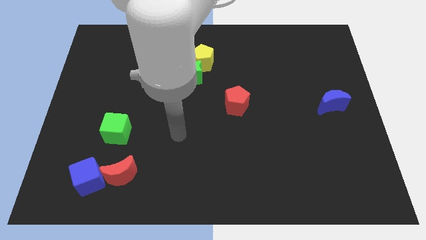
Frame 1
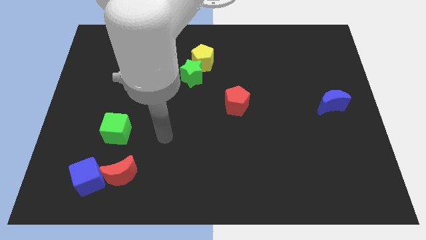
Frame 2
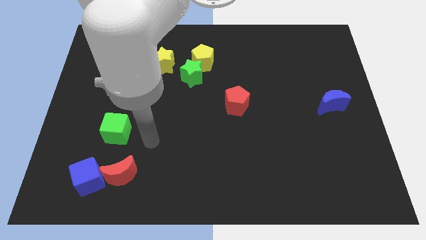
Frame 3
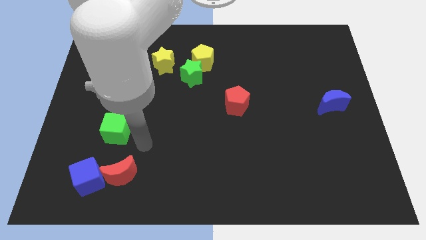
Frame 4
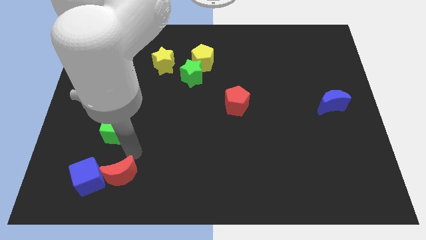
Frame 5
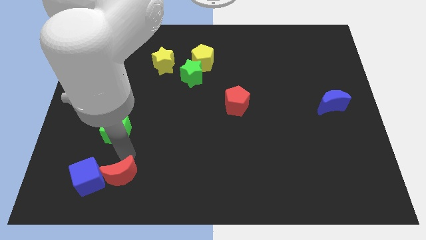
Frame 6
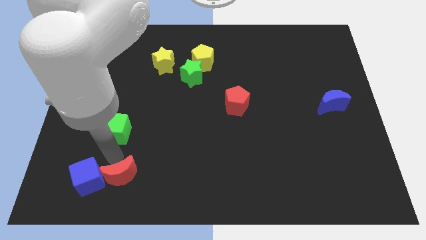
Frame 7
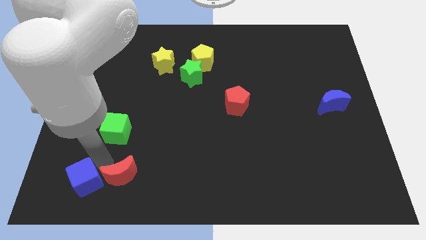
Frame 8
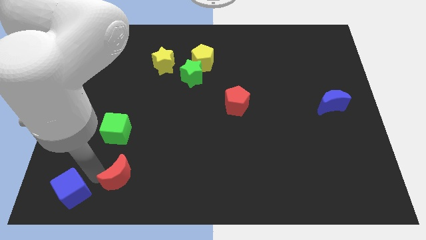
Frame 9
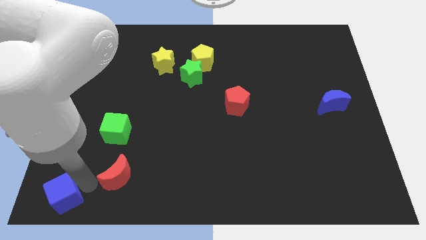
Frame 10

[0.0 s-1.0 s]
pull the red moon apart from the blue cube

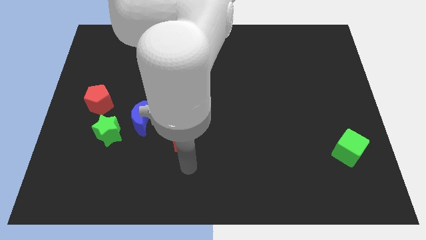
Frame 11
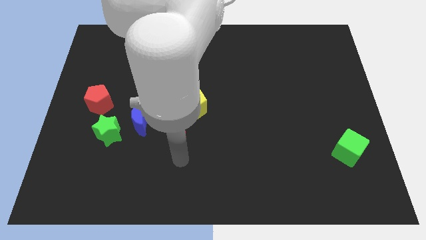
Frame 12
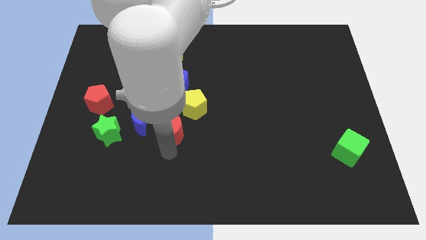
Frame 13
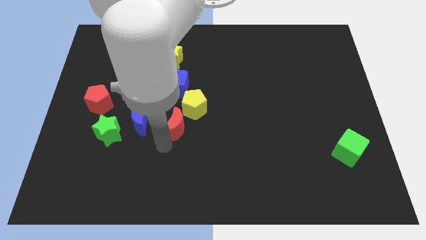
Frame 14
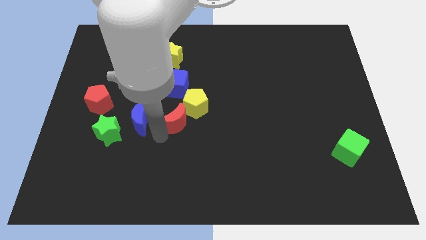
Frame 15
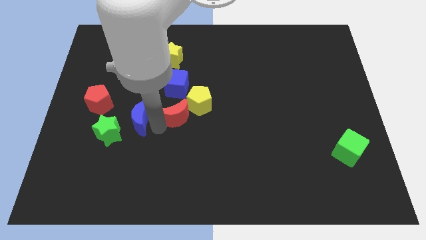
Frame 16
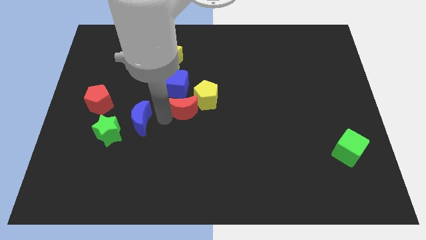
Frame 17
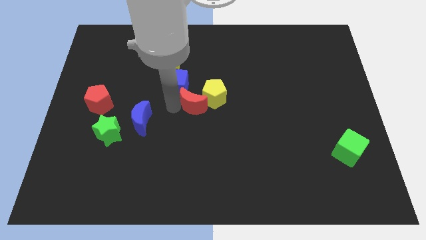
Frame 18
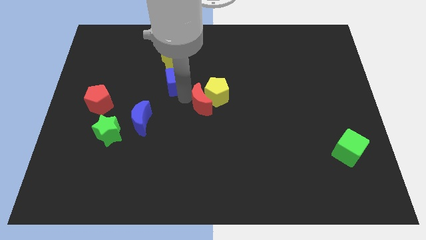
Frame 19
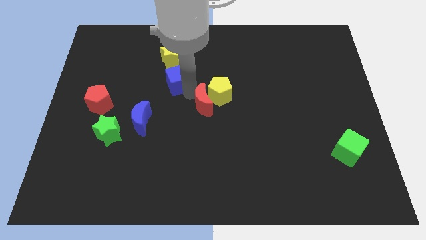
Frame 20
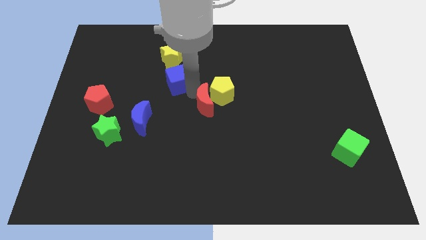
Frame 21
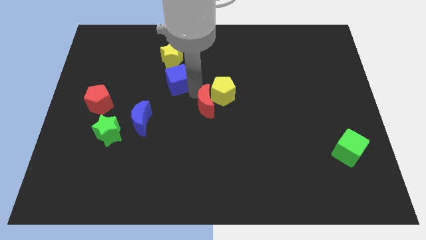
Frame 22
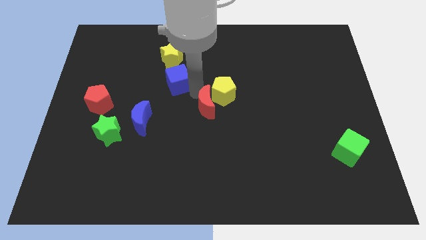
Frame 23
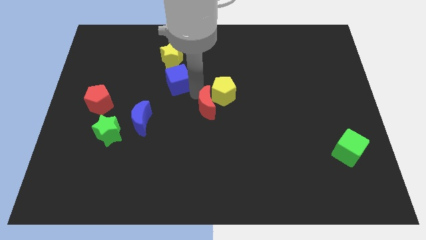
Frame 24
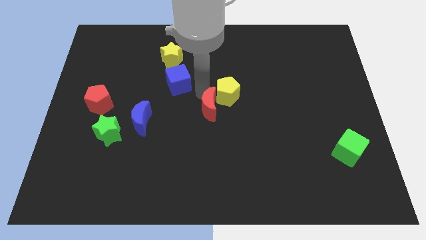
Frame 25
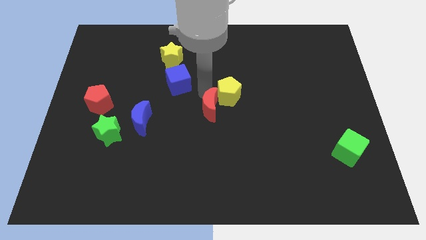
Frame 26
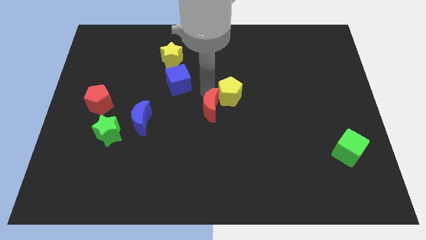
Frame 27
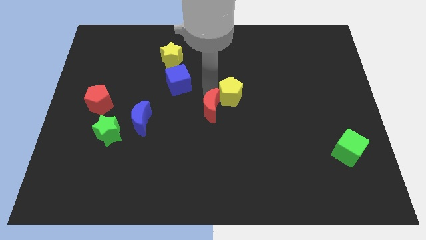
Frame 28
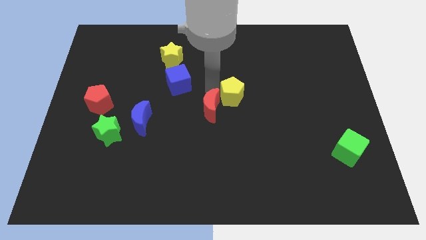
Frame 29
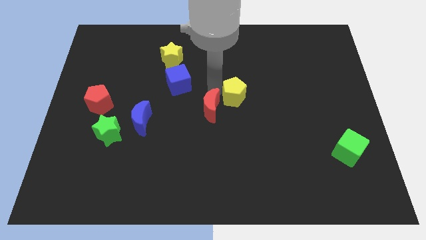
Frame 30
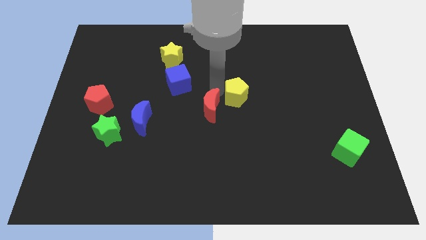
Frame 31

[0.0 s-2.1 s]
separate the yellow pentagon from the blue cube and red moon

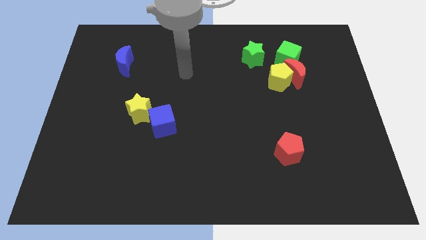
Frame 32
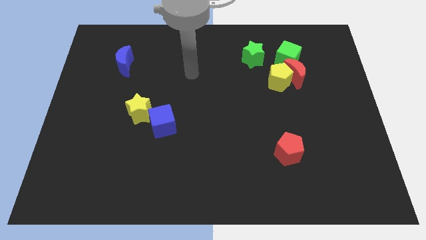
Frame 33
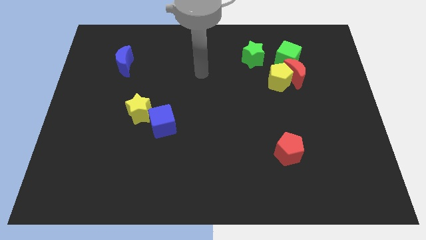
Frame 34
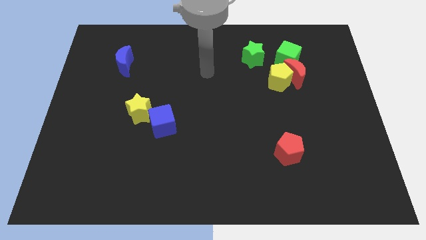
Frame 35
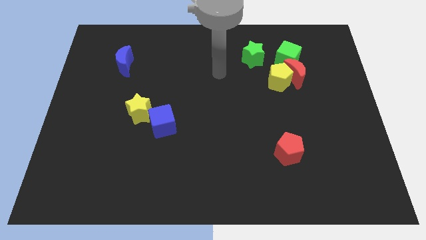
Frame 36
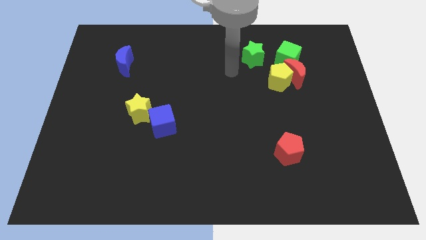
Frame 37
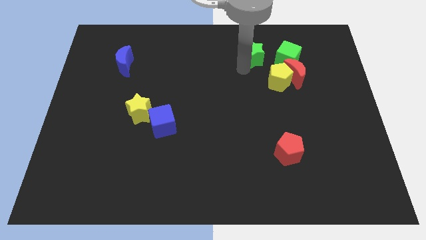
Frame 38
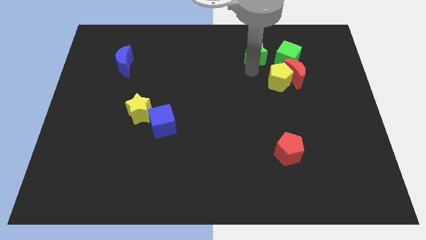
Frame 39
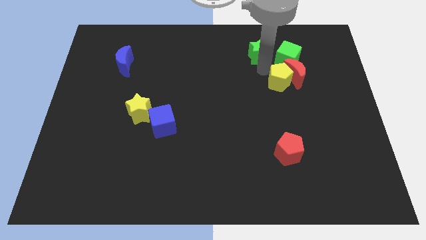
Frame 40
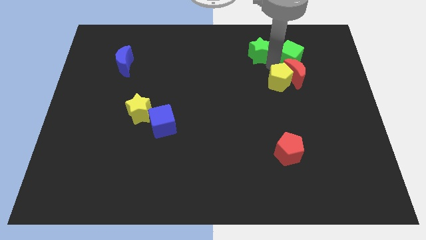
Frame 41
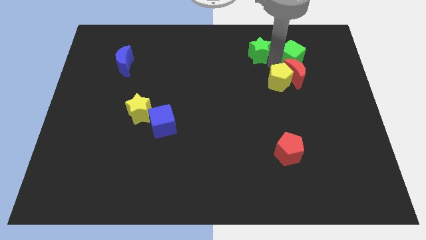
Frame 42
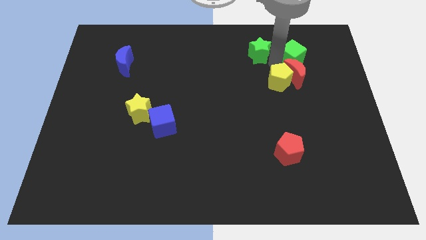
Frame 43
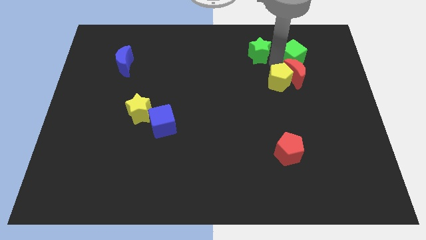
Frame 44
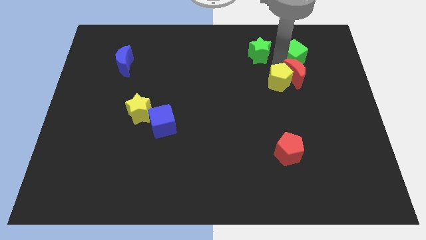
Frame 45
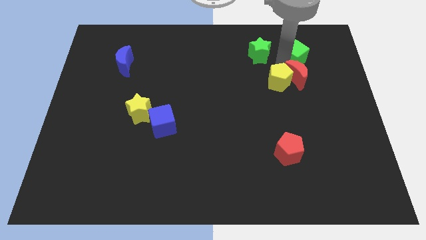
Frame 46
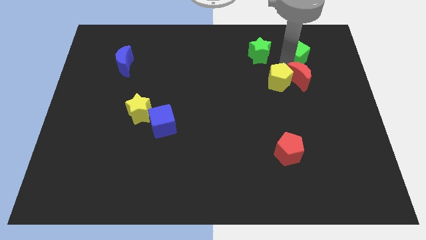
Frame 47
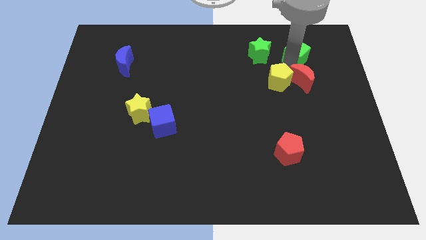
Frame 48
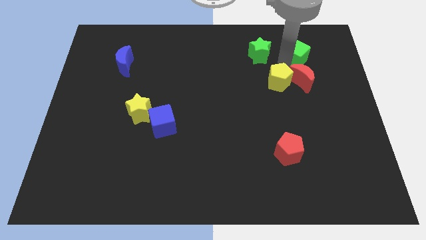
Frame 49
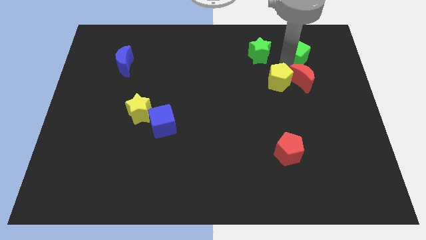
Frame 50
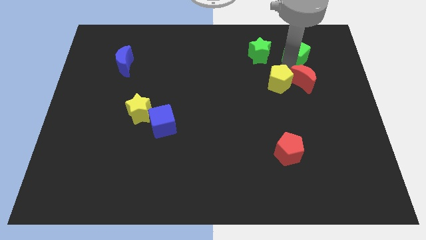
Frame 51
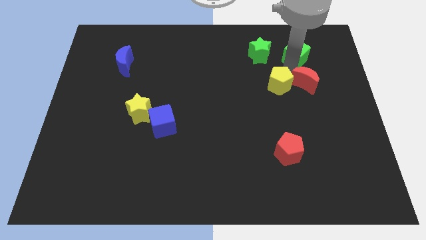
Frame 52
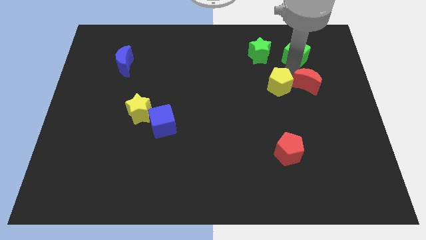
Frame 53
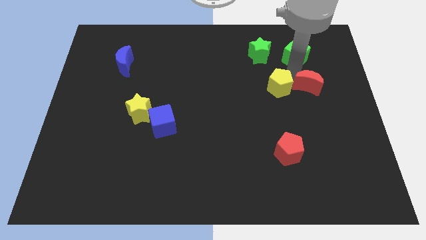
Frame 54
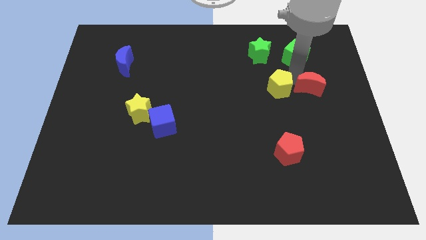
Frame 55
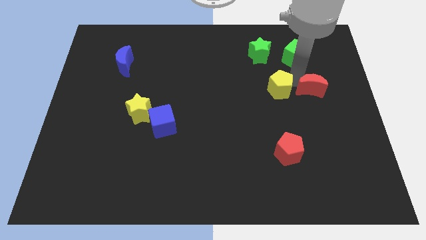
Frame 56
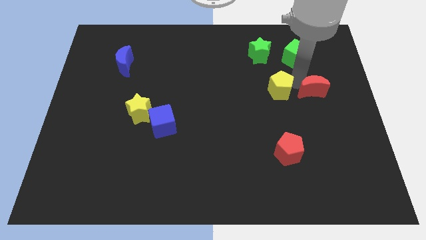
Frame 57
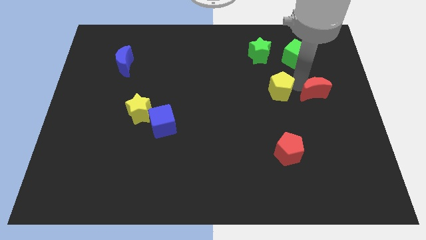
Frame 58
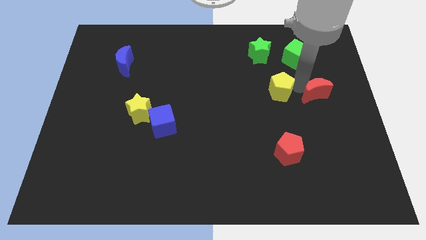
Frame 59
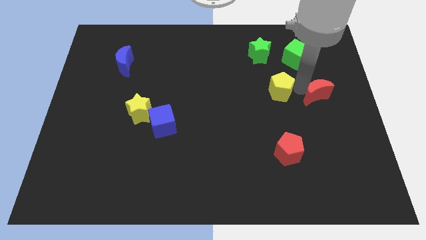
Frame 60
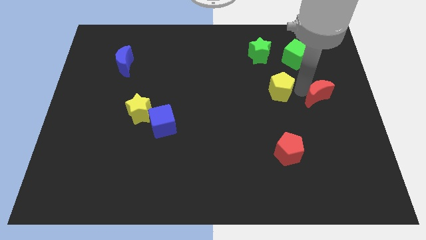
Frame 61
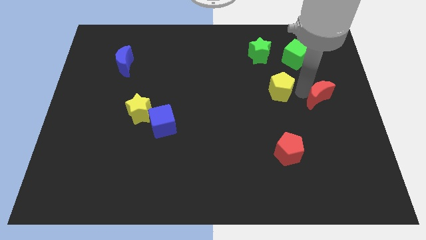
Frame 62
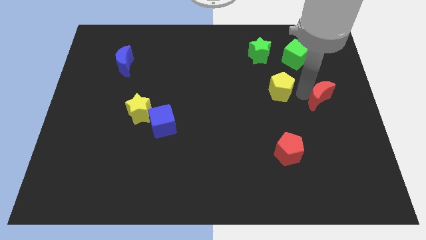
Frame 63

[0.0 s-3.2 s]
pull the red moon apart from the yellow pentagon and green cube

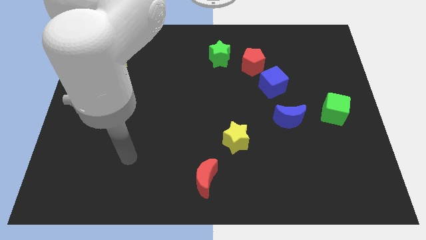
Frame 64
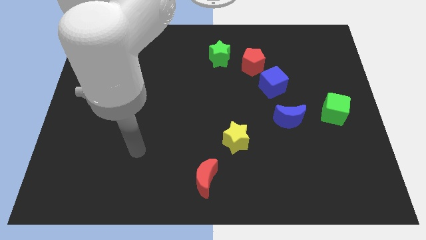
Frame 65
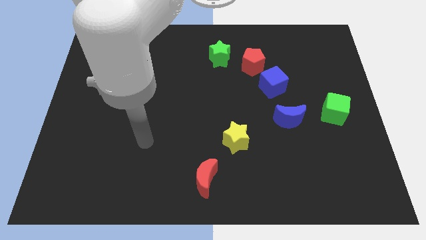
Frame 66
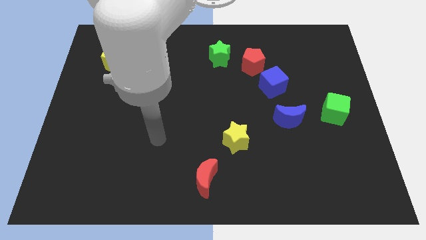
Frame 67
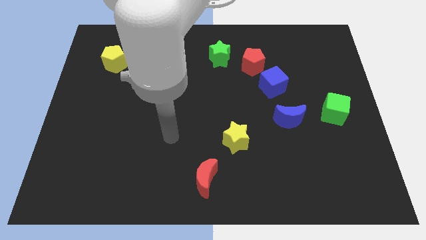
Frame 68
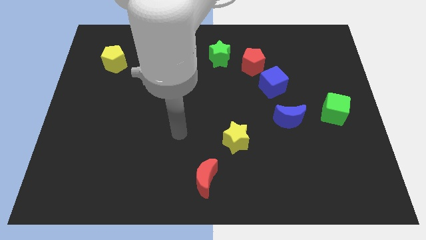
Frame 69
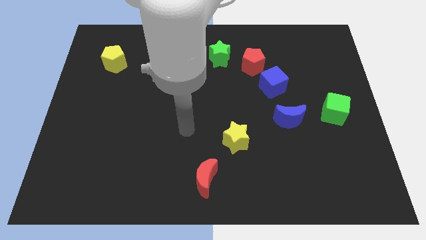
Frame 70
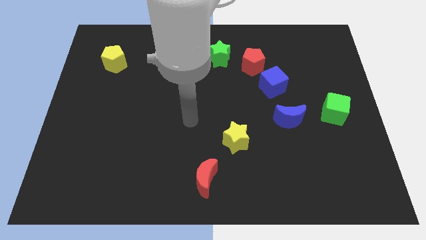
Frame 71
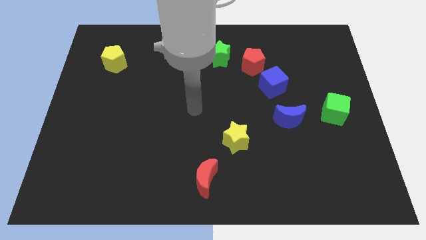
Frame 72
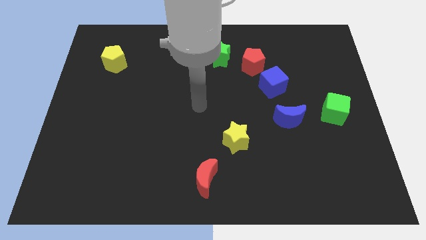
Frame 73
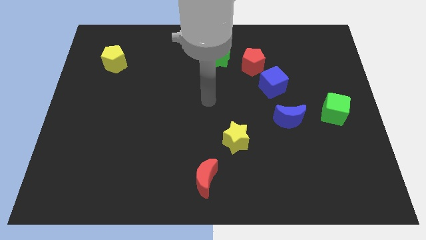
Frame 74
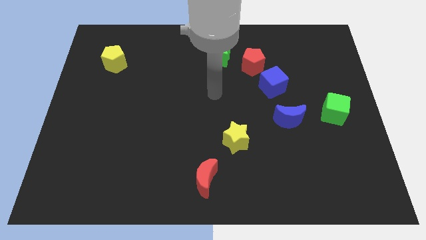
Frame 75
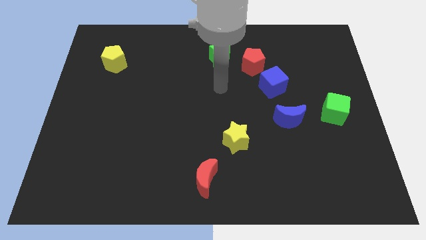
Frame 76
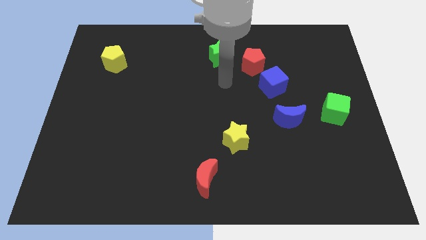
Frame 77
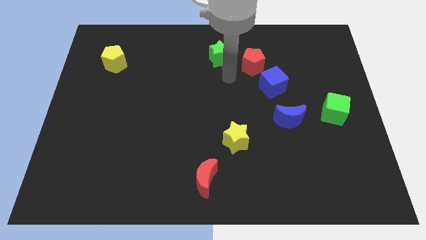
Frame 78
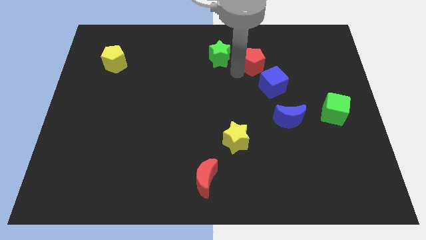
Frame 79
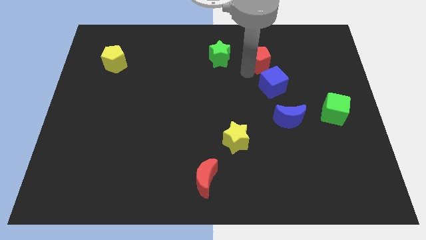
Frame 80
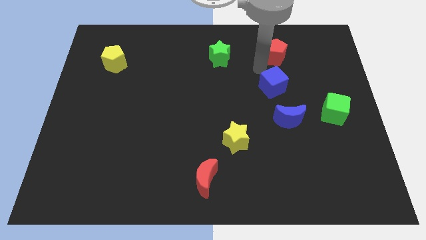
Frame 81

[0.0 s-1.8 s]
move the blue cube away from the red pentagon

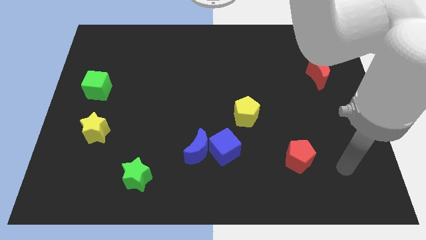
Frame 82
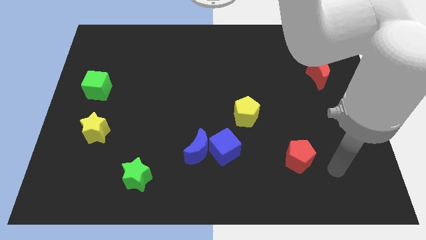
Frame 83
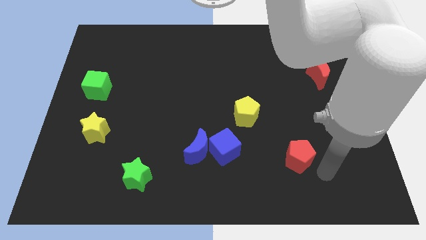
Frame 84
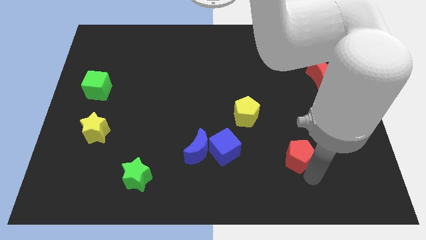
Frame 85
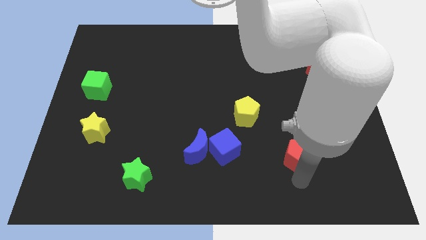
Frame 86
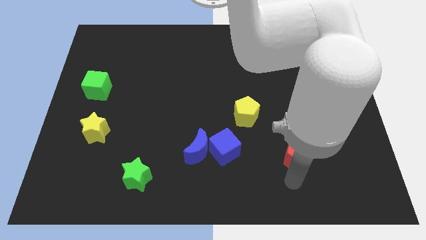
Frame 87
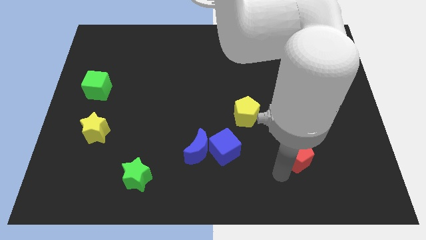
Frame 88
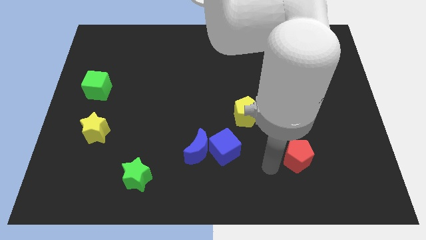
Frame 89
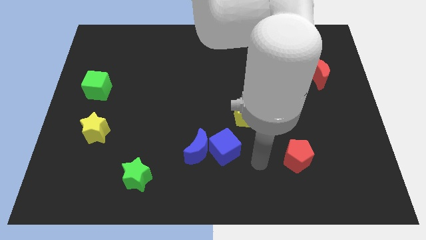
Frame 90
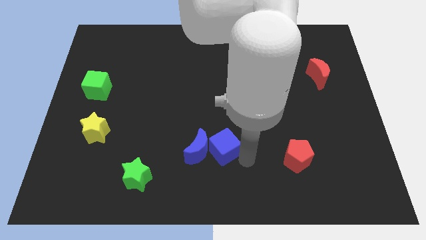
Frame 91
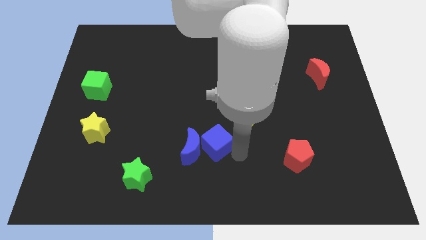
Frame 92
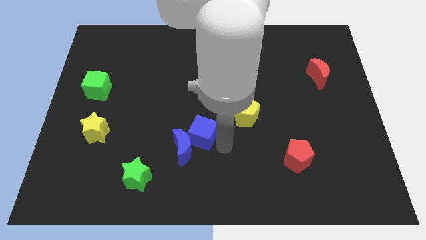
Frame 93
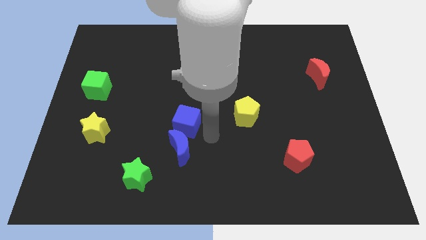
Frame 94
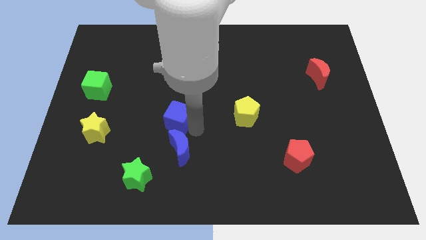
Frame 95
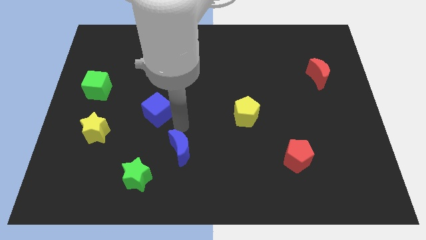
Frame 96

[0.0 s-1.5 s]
move the blue moon away from the blue cube
